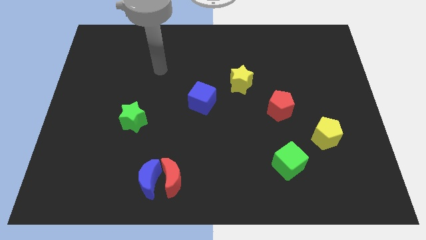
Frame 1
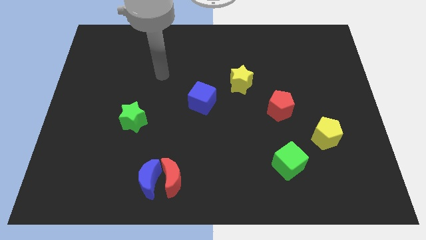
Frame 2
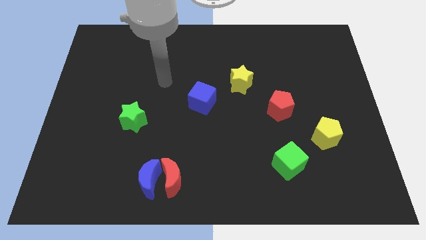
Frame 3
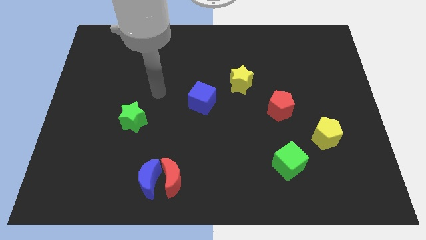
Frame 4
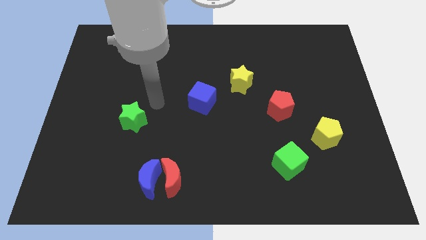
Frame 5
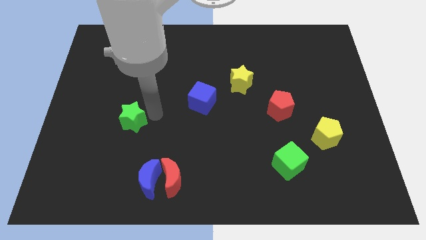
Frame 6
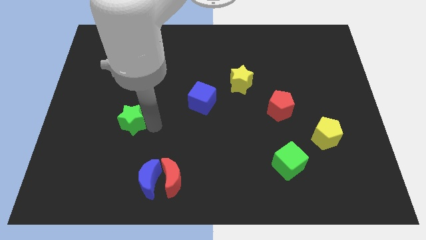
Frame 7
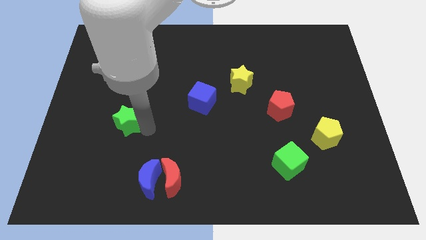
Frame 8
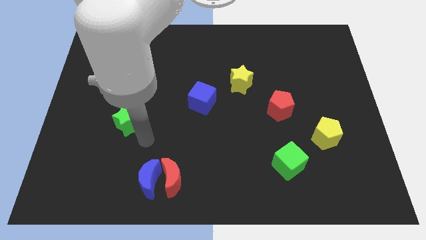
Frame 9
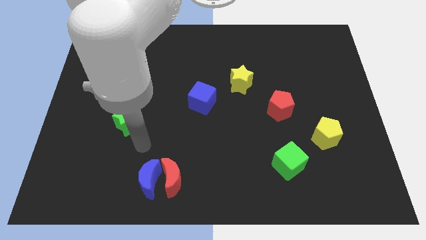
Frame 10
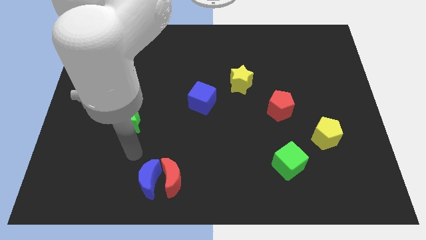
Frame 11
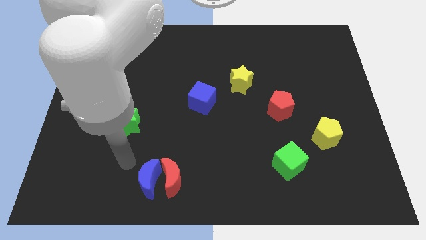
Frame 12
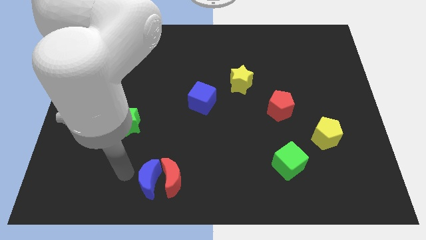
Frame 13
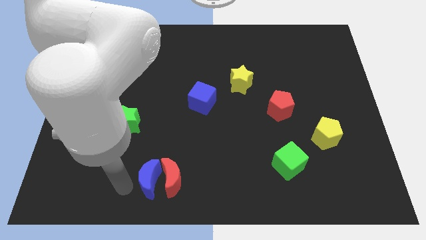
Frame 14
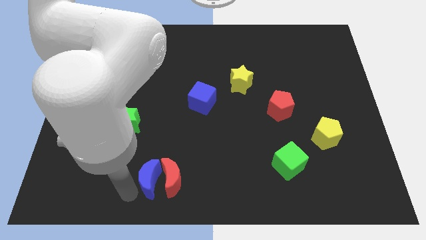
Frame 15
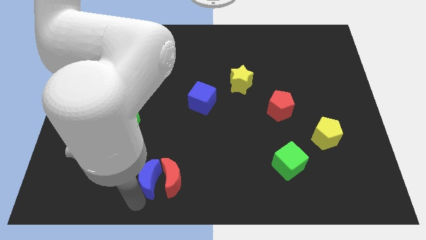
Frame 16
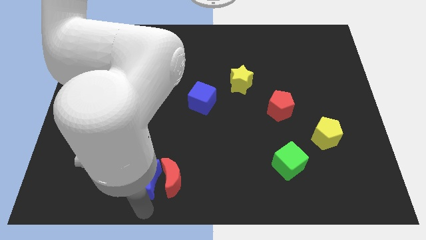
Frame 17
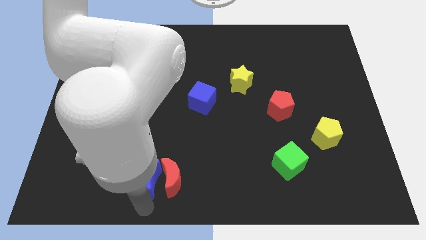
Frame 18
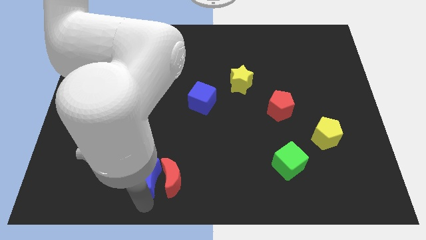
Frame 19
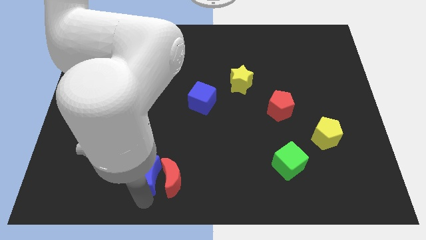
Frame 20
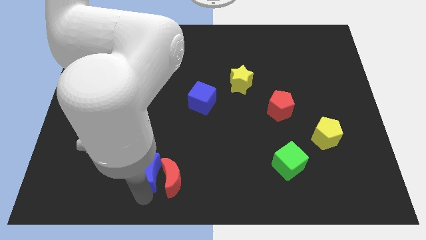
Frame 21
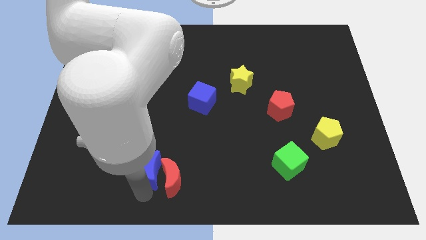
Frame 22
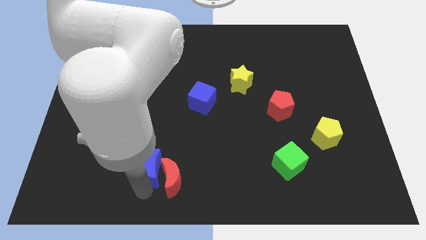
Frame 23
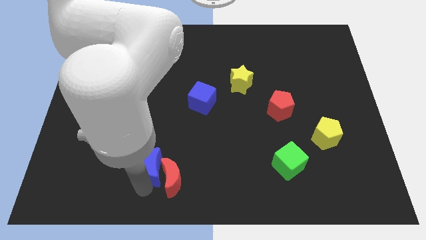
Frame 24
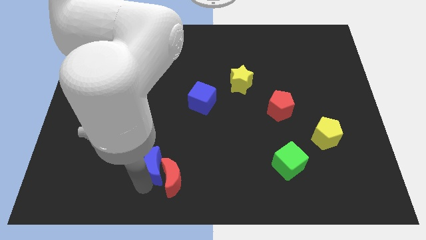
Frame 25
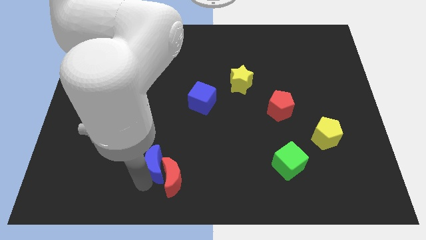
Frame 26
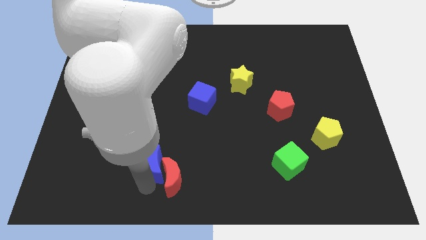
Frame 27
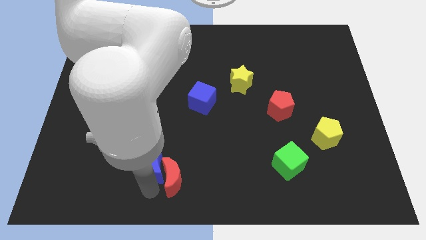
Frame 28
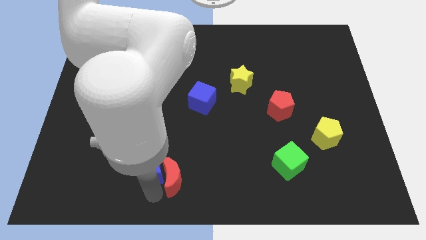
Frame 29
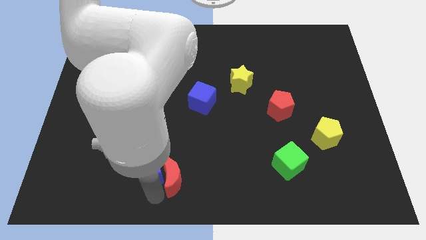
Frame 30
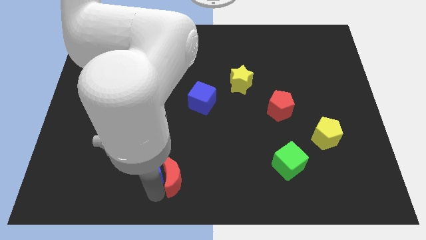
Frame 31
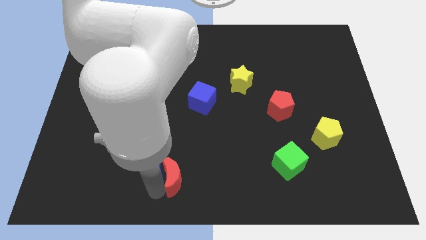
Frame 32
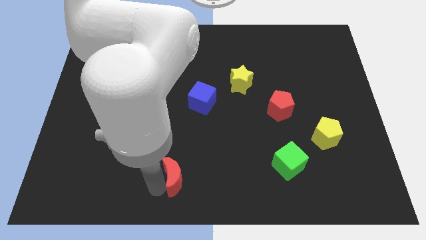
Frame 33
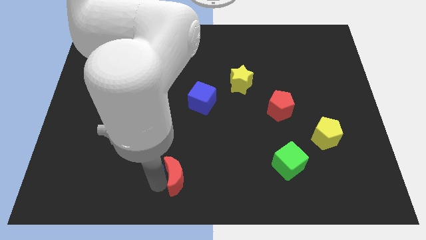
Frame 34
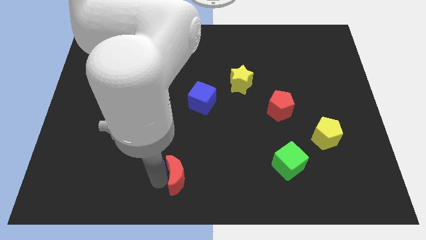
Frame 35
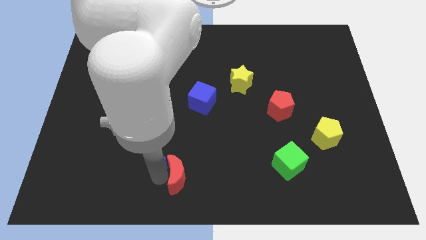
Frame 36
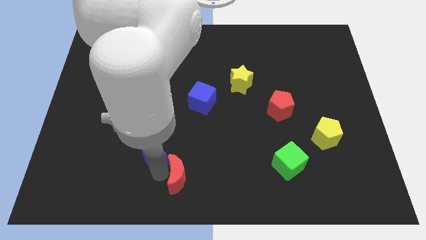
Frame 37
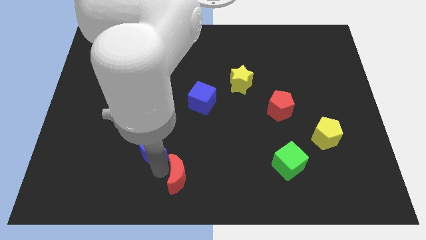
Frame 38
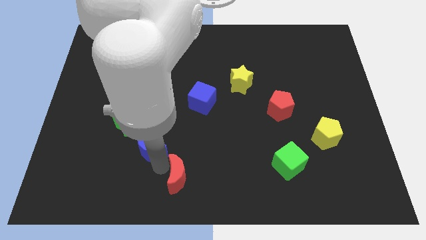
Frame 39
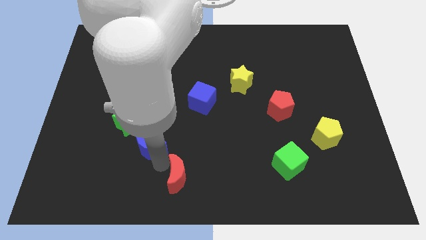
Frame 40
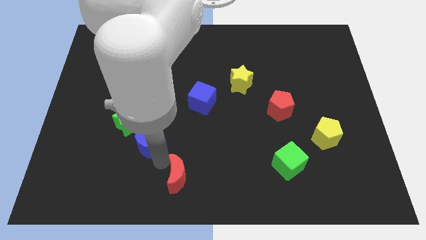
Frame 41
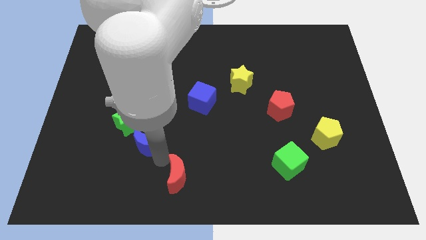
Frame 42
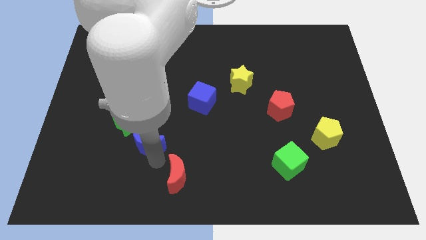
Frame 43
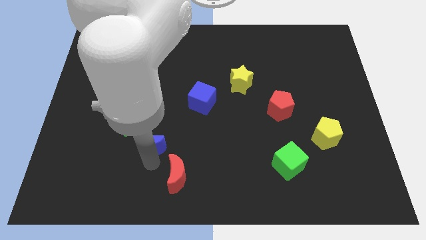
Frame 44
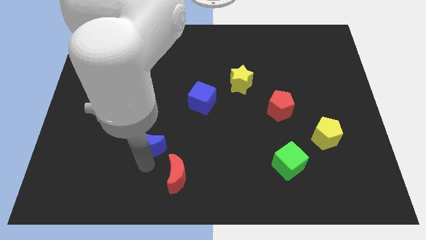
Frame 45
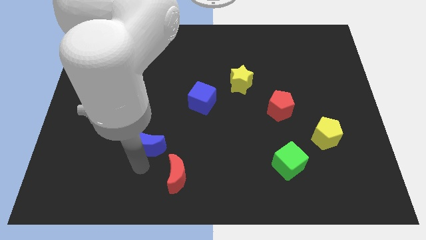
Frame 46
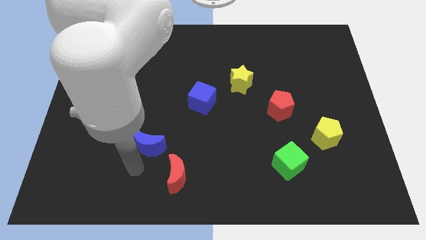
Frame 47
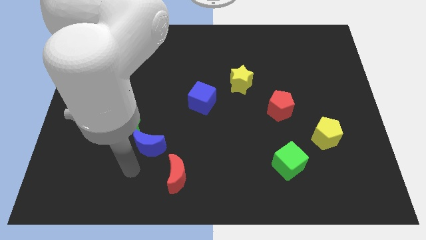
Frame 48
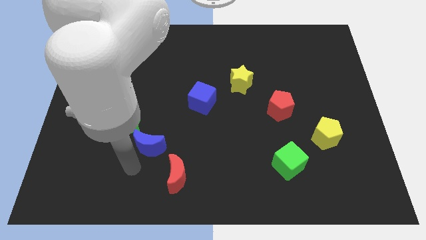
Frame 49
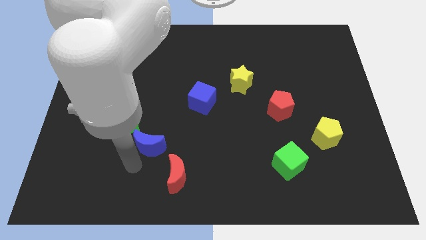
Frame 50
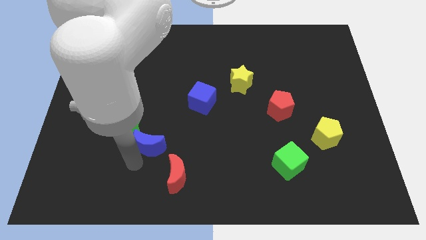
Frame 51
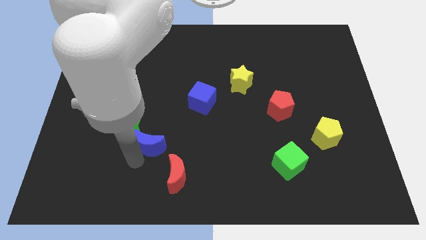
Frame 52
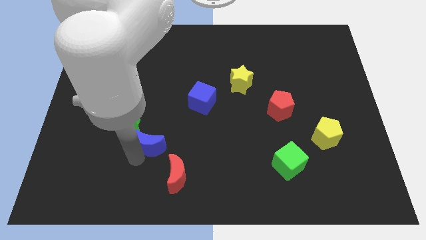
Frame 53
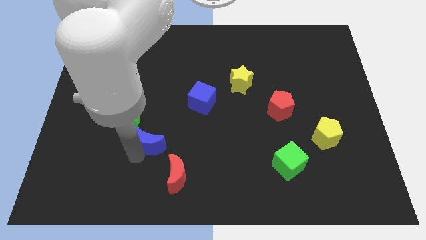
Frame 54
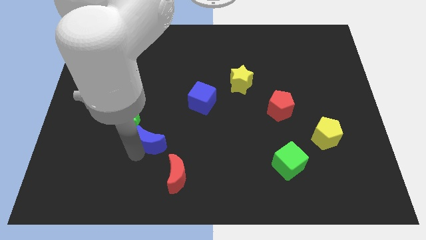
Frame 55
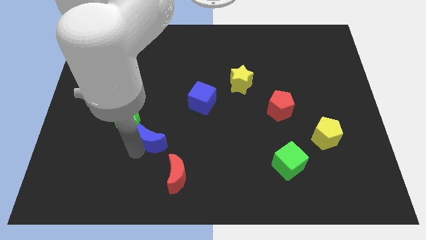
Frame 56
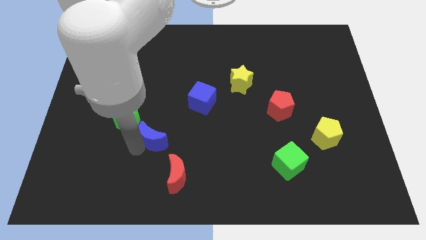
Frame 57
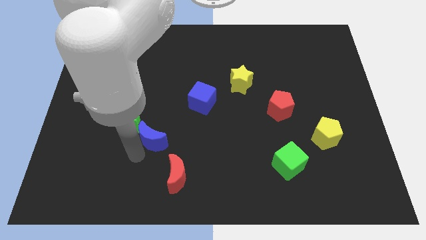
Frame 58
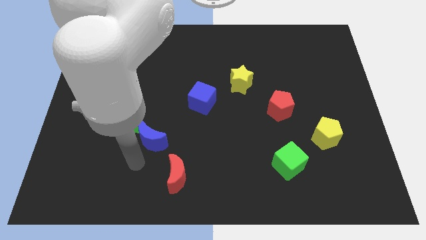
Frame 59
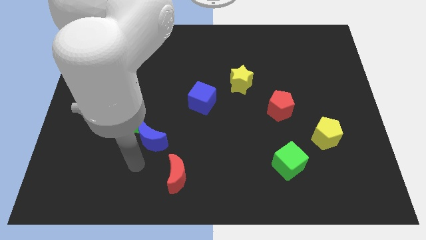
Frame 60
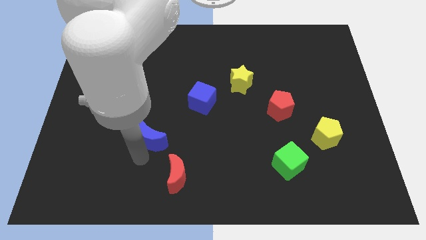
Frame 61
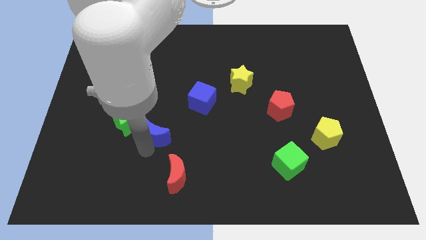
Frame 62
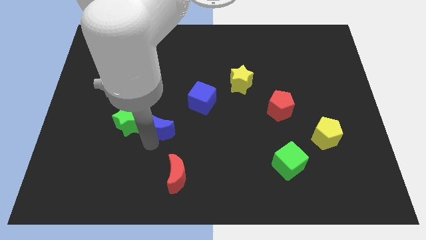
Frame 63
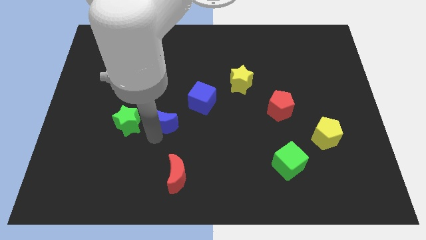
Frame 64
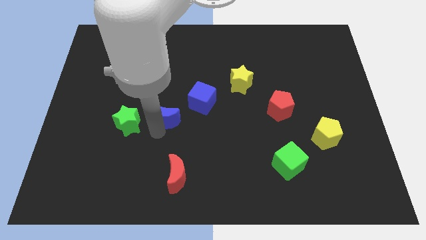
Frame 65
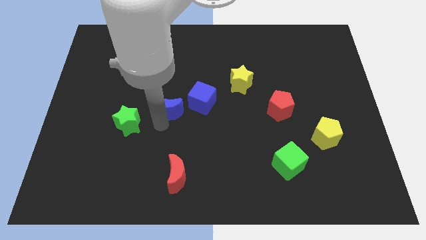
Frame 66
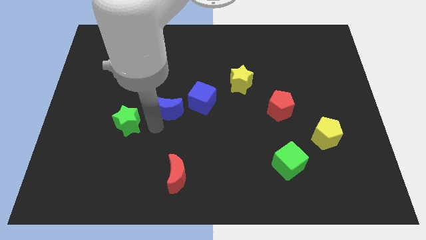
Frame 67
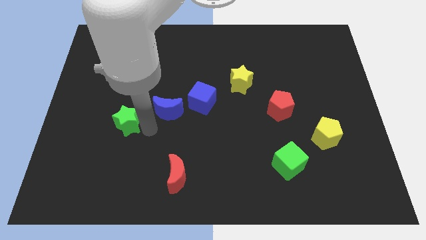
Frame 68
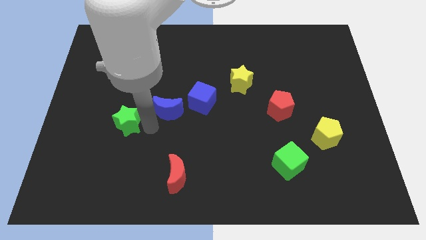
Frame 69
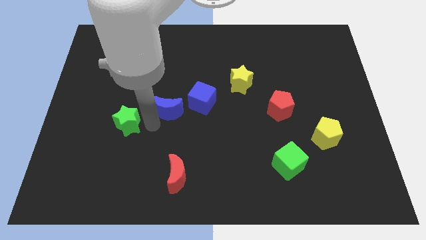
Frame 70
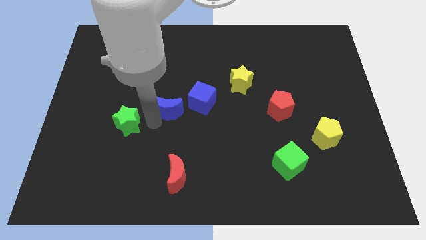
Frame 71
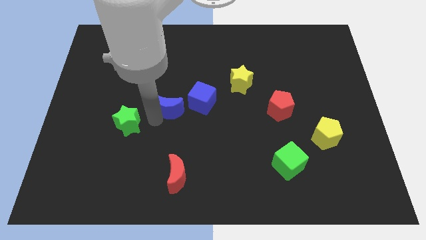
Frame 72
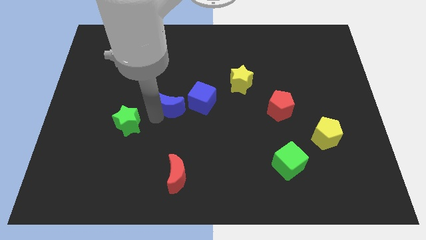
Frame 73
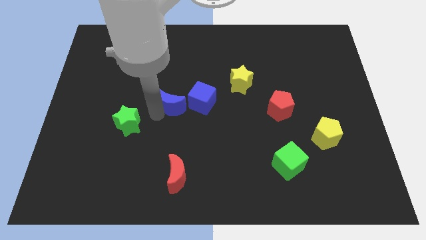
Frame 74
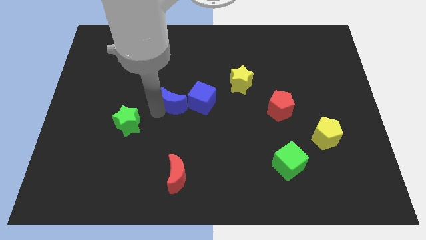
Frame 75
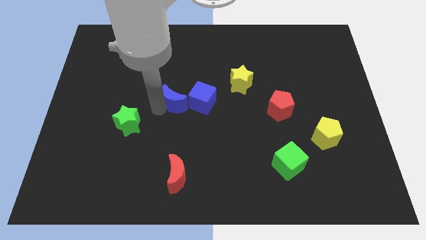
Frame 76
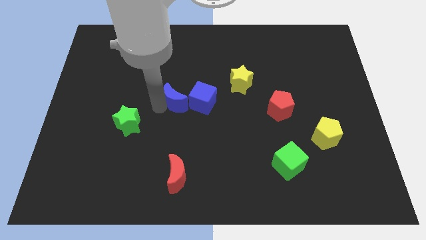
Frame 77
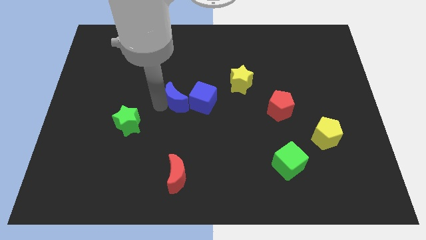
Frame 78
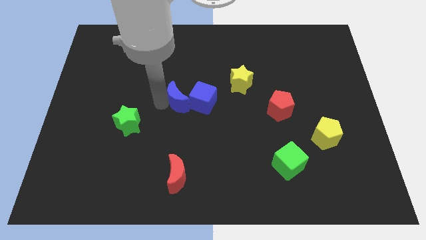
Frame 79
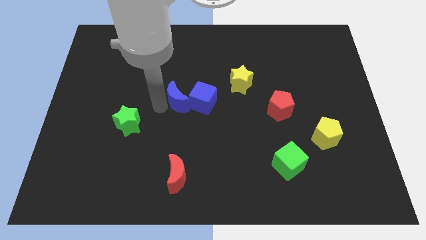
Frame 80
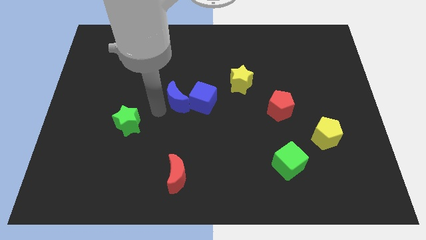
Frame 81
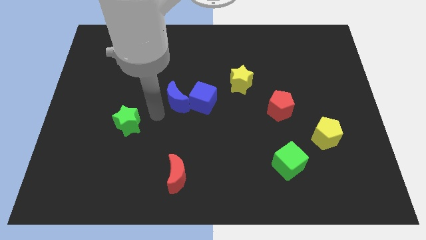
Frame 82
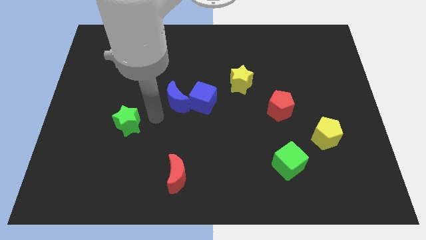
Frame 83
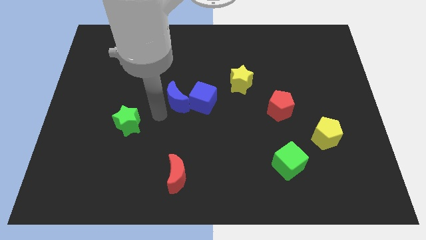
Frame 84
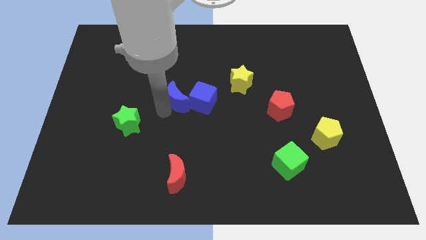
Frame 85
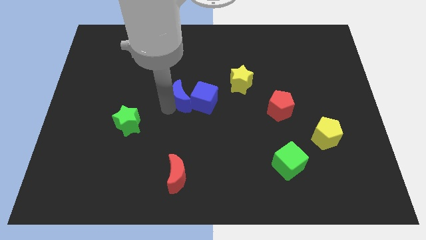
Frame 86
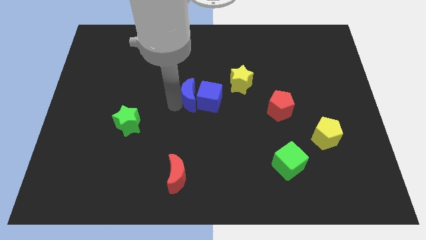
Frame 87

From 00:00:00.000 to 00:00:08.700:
slide the blue moon just left of the yellow star
